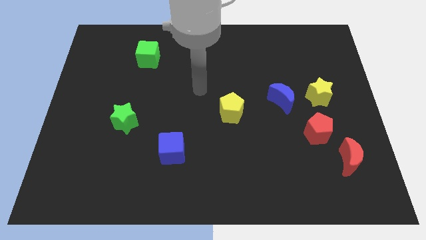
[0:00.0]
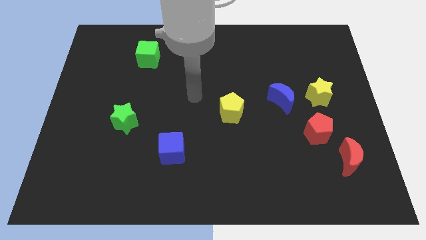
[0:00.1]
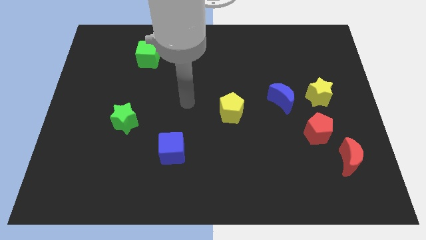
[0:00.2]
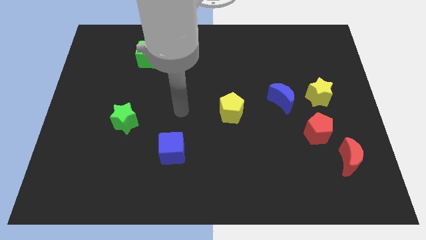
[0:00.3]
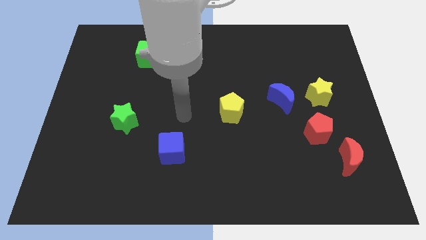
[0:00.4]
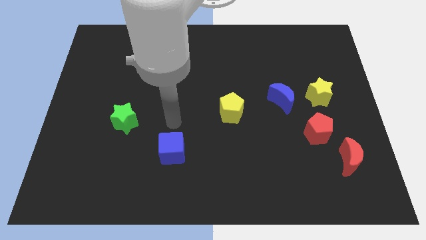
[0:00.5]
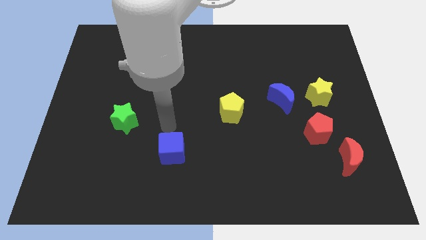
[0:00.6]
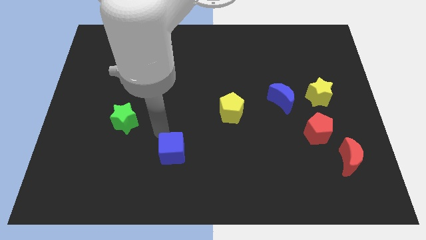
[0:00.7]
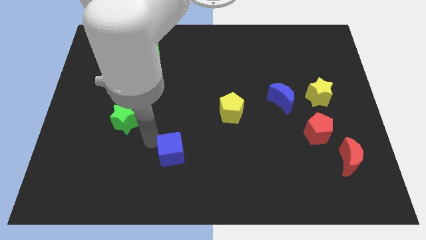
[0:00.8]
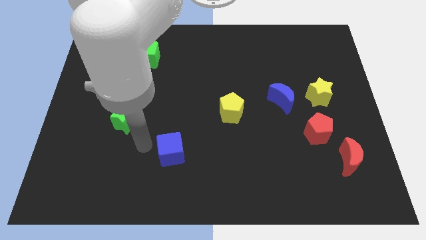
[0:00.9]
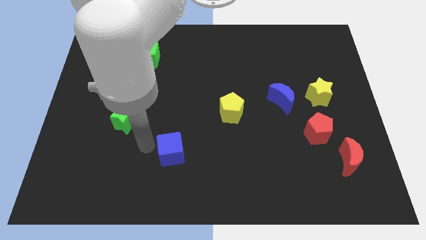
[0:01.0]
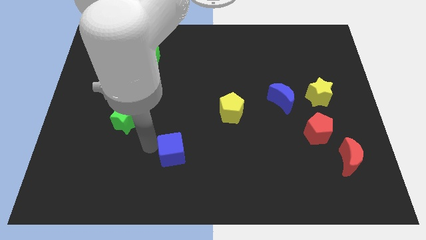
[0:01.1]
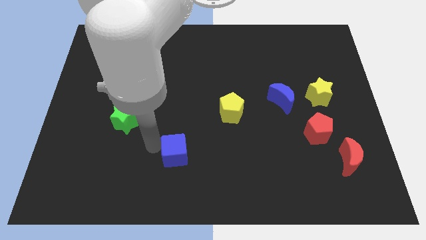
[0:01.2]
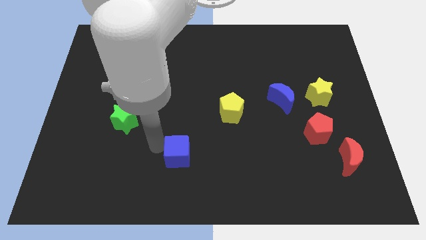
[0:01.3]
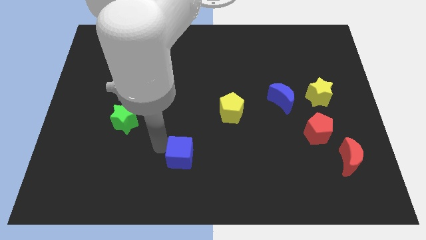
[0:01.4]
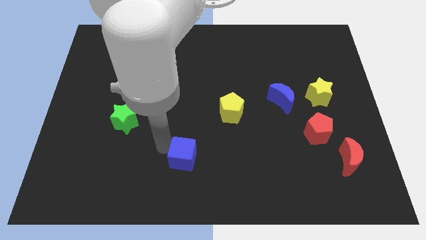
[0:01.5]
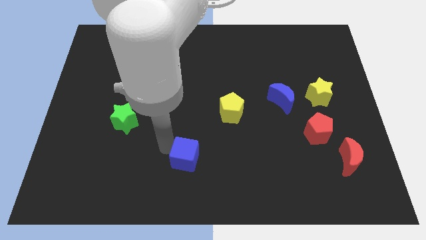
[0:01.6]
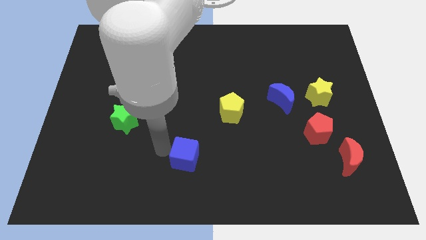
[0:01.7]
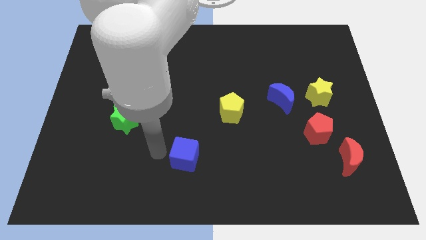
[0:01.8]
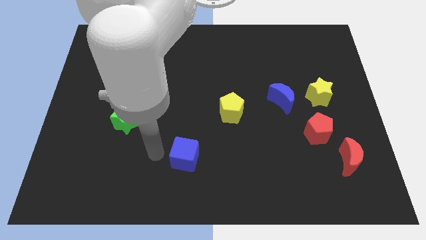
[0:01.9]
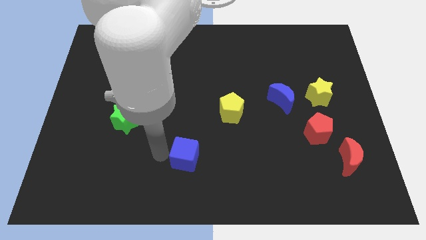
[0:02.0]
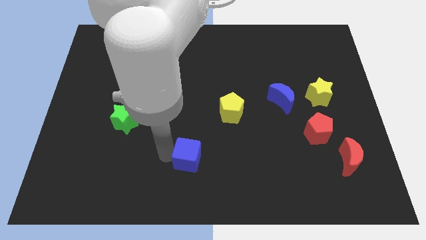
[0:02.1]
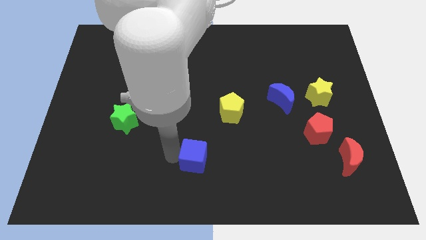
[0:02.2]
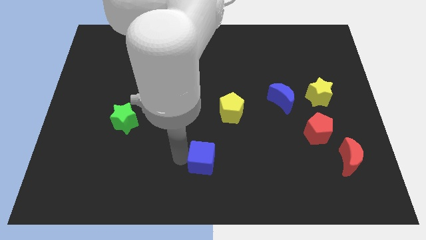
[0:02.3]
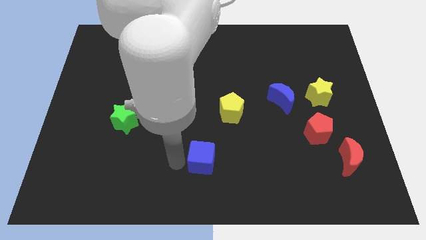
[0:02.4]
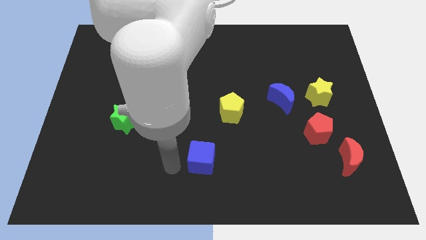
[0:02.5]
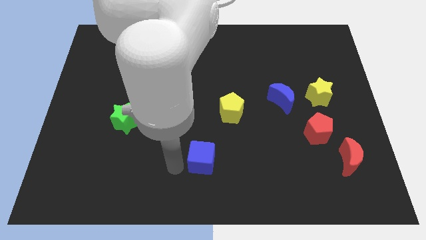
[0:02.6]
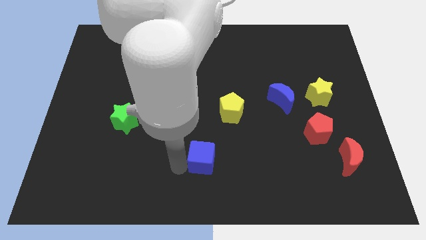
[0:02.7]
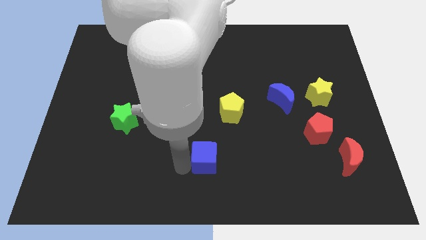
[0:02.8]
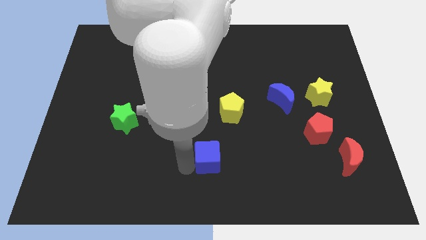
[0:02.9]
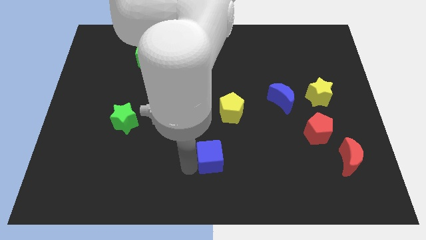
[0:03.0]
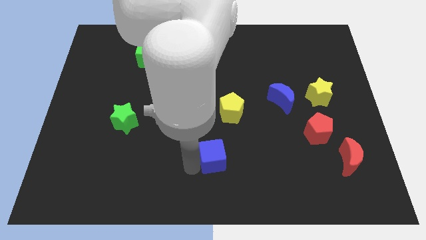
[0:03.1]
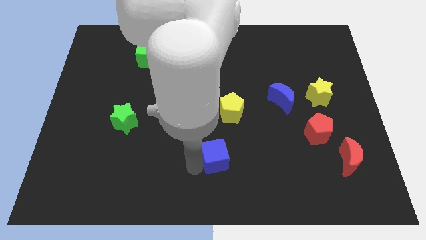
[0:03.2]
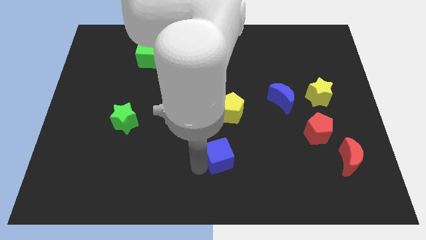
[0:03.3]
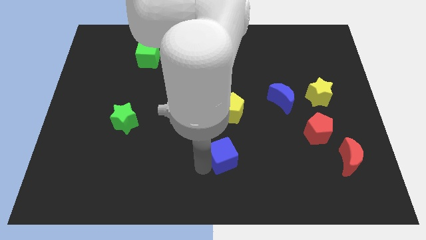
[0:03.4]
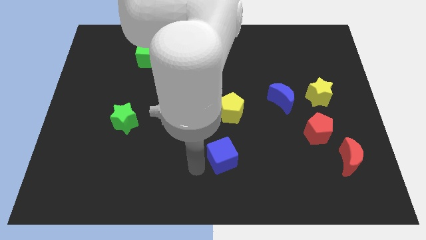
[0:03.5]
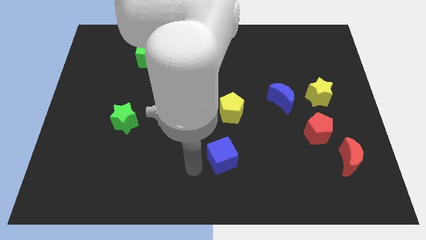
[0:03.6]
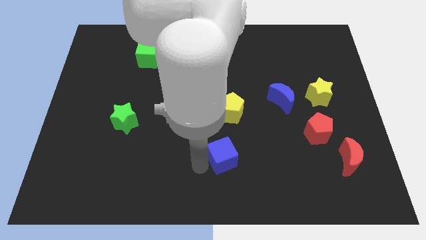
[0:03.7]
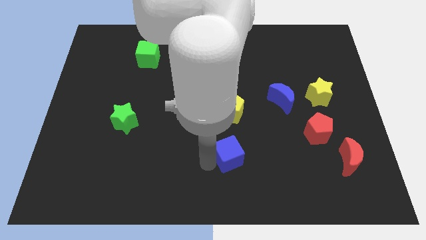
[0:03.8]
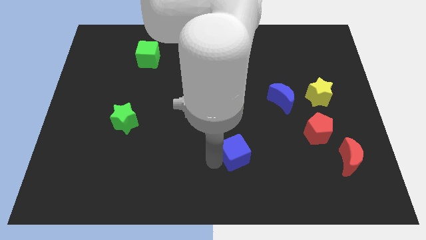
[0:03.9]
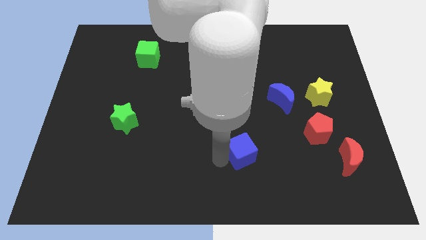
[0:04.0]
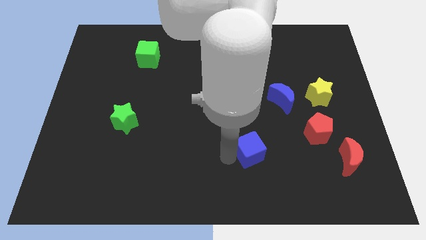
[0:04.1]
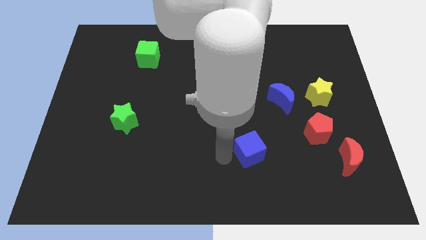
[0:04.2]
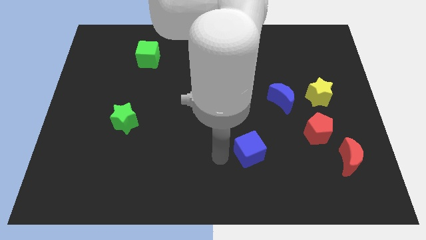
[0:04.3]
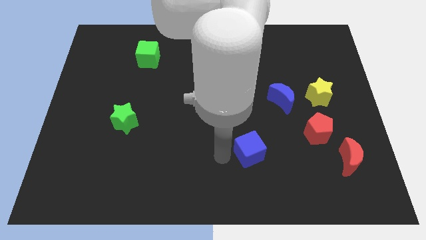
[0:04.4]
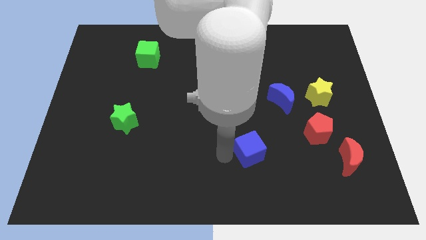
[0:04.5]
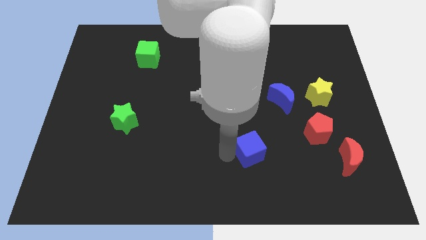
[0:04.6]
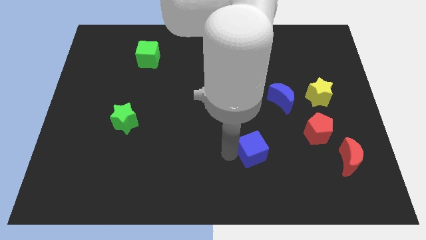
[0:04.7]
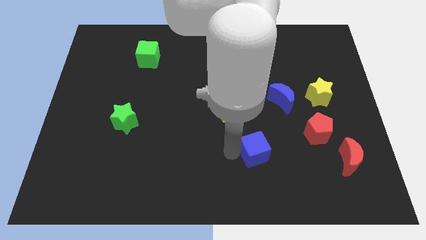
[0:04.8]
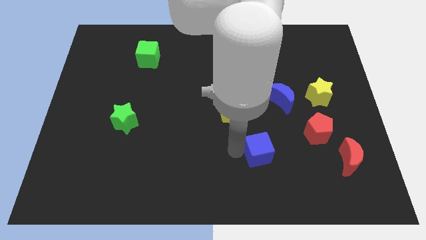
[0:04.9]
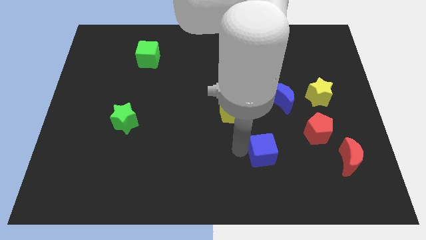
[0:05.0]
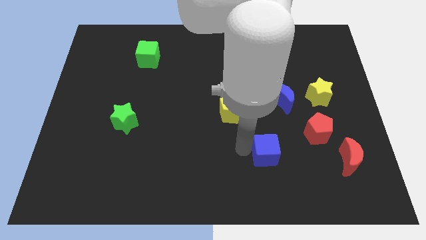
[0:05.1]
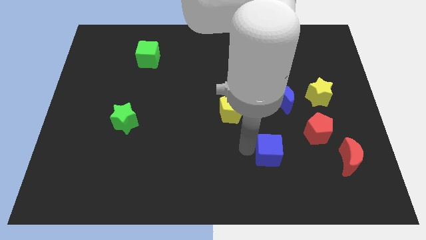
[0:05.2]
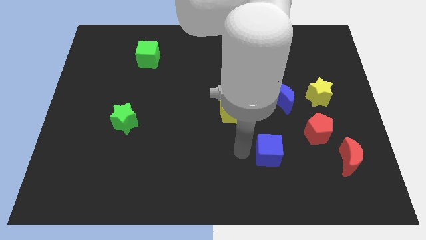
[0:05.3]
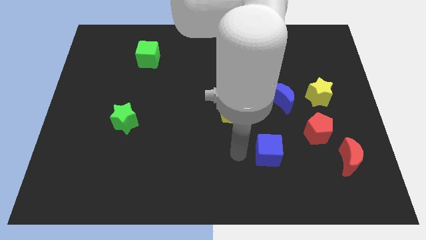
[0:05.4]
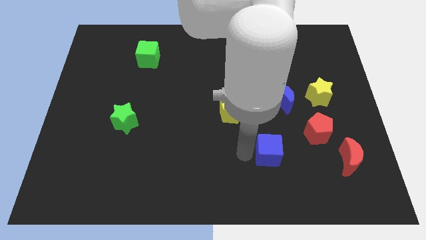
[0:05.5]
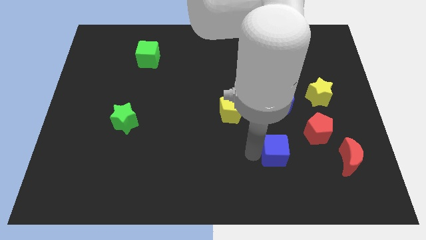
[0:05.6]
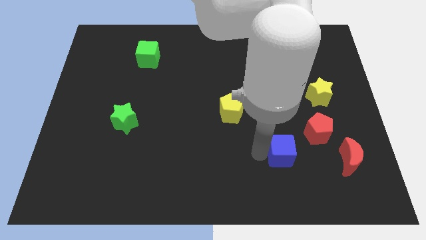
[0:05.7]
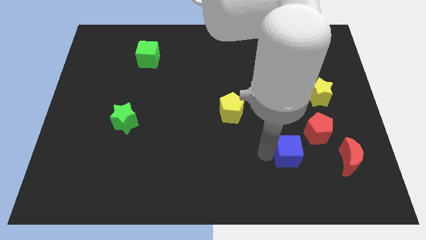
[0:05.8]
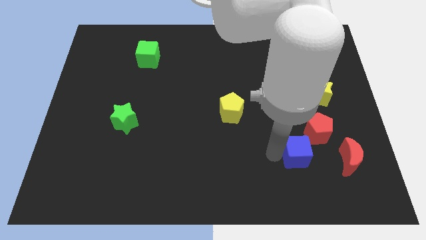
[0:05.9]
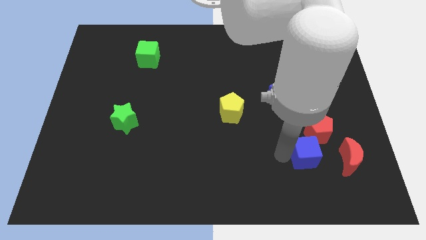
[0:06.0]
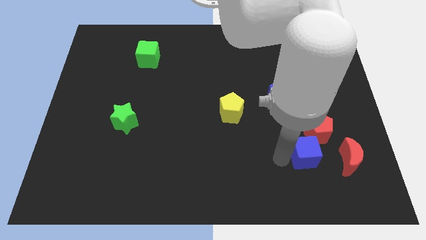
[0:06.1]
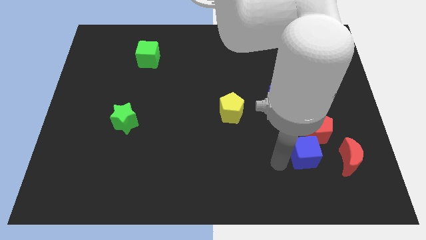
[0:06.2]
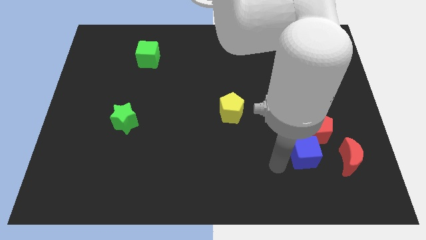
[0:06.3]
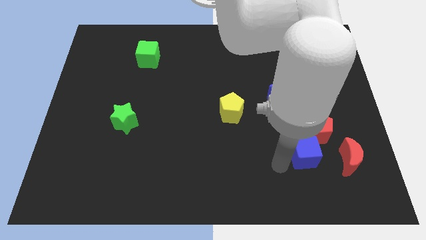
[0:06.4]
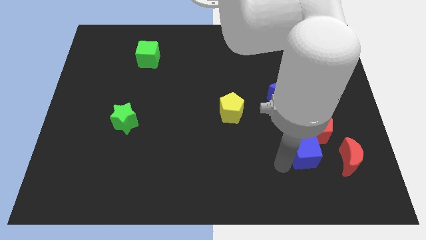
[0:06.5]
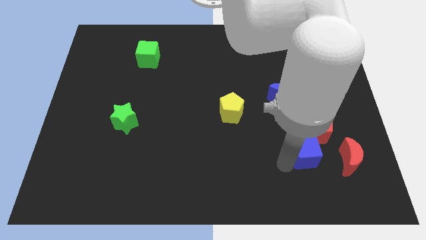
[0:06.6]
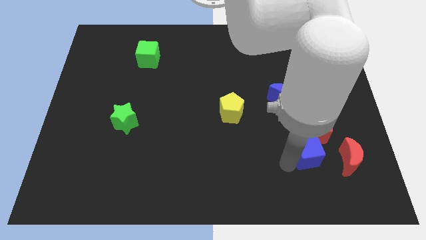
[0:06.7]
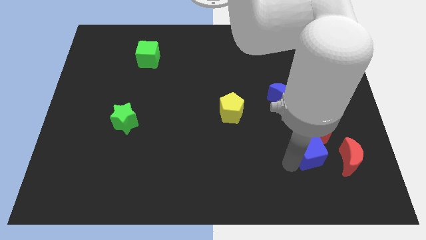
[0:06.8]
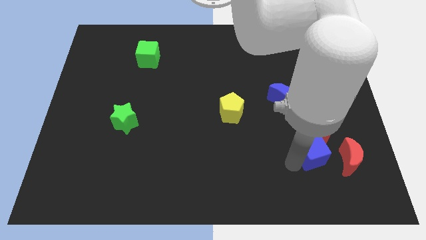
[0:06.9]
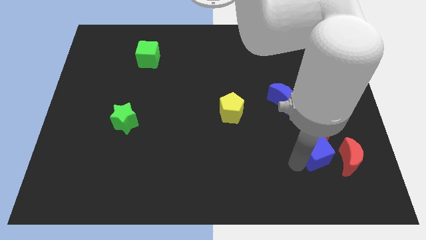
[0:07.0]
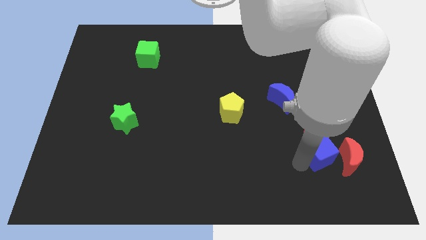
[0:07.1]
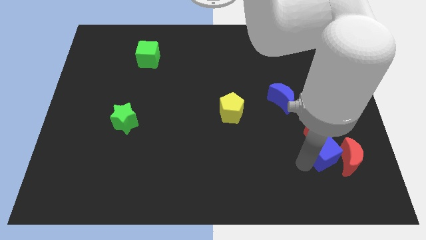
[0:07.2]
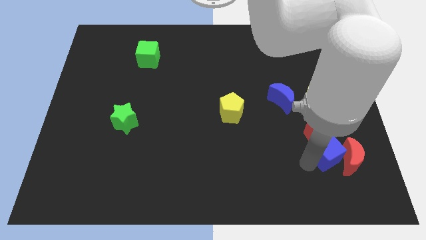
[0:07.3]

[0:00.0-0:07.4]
move the blue cube below the yellow star
